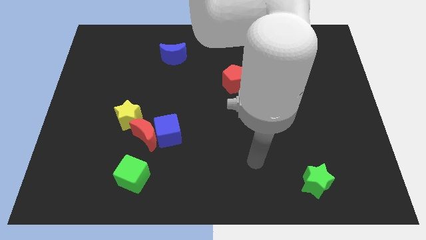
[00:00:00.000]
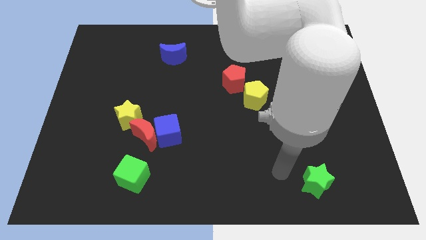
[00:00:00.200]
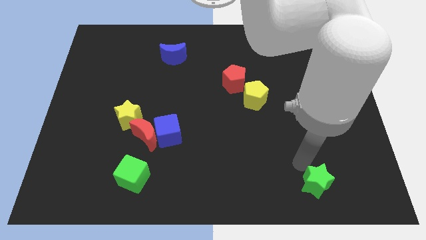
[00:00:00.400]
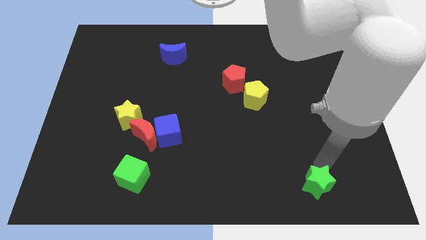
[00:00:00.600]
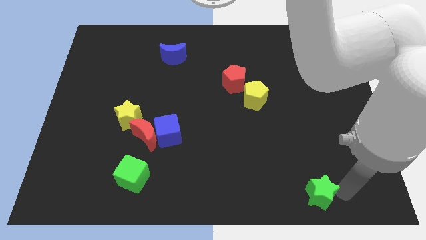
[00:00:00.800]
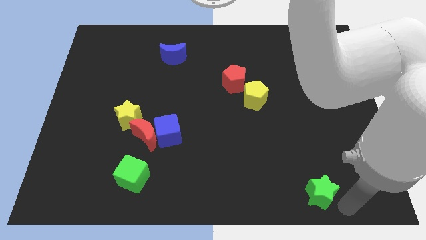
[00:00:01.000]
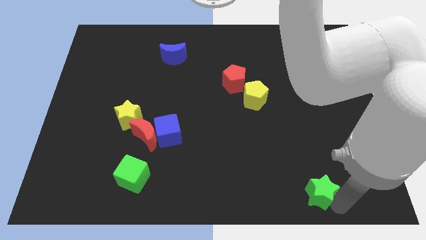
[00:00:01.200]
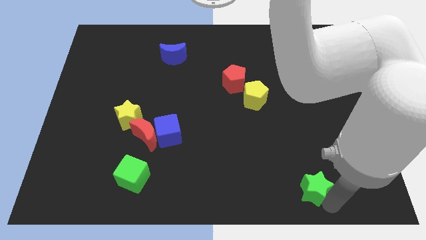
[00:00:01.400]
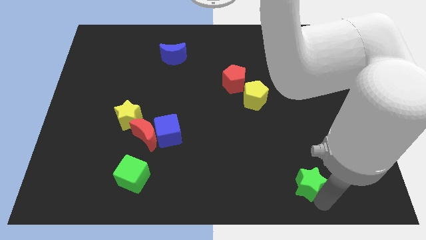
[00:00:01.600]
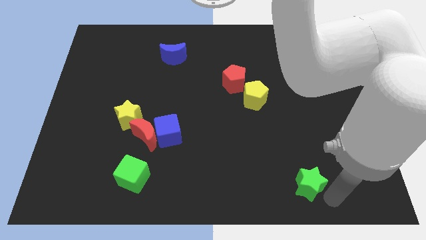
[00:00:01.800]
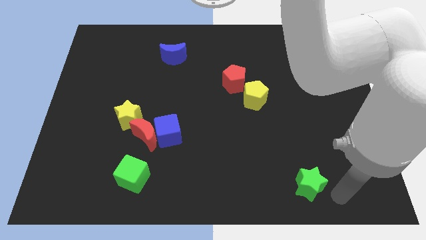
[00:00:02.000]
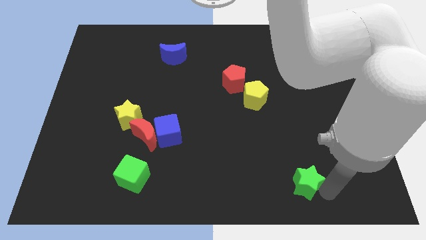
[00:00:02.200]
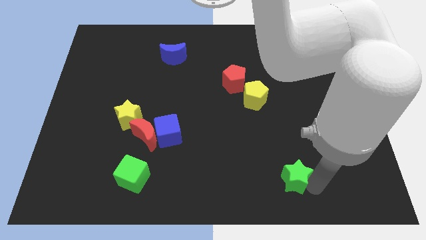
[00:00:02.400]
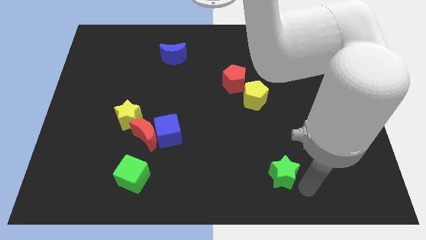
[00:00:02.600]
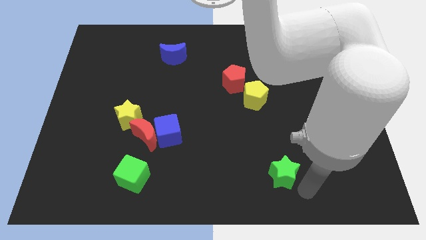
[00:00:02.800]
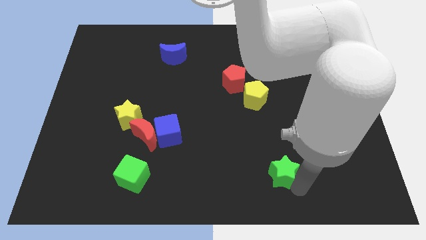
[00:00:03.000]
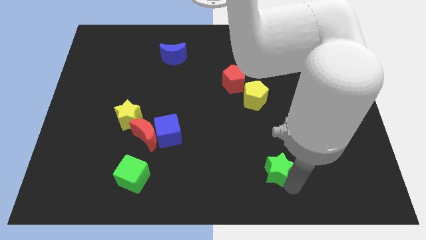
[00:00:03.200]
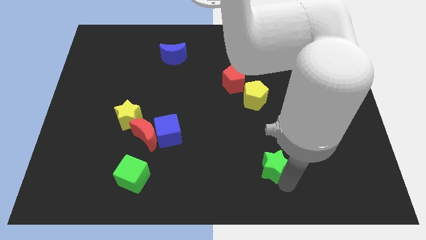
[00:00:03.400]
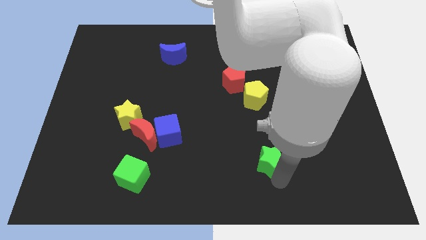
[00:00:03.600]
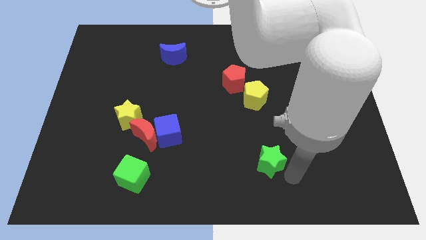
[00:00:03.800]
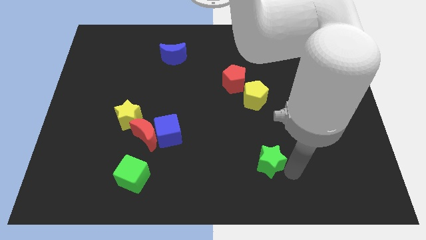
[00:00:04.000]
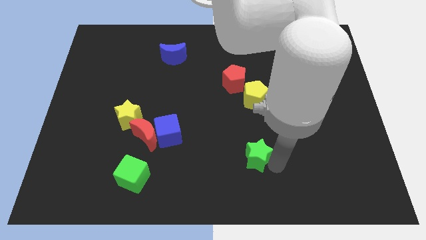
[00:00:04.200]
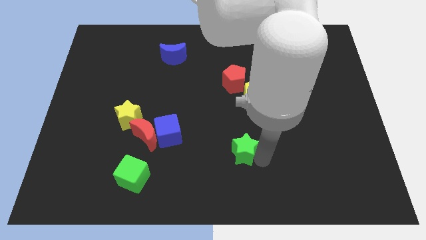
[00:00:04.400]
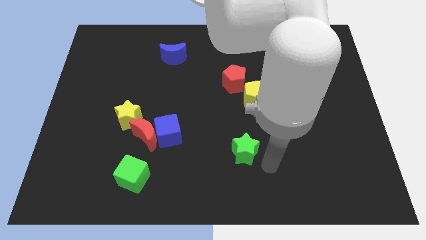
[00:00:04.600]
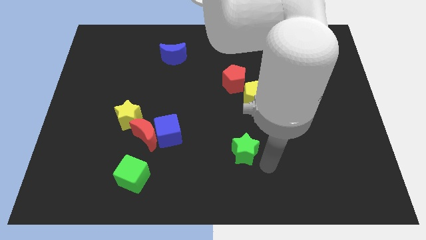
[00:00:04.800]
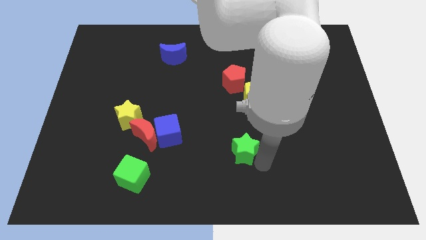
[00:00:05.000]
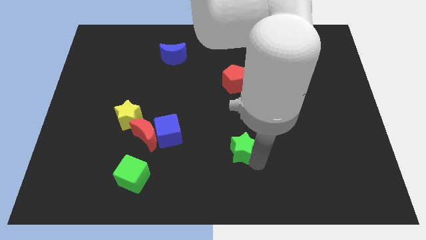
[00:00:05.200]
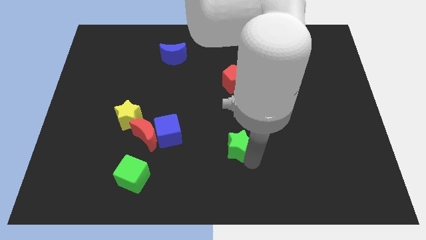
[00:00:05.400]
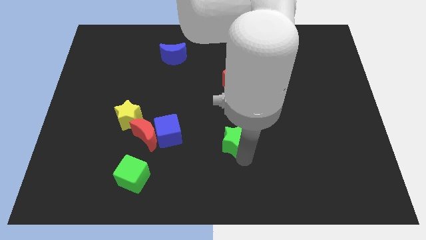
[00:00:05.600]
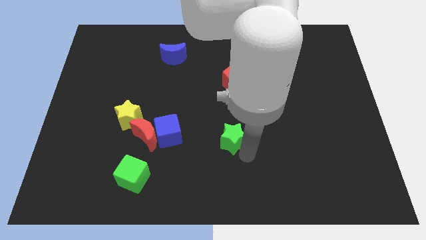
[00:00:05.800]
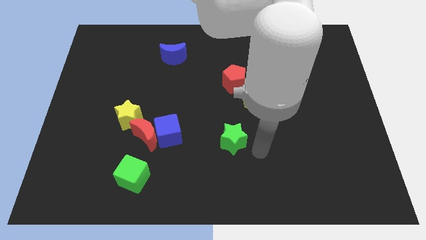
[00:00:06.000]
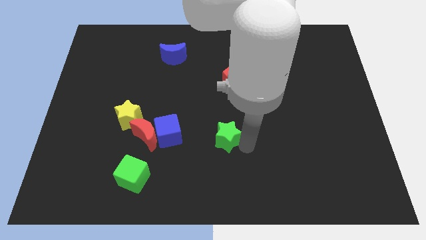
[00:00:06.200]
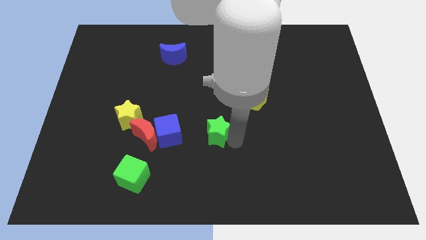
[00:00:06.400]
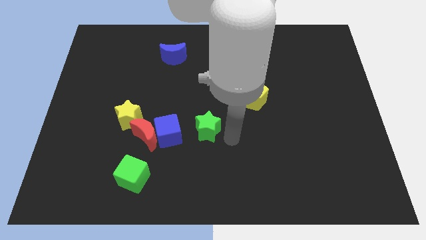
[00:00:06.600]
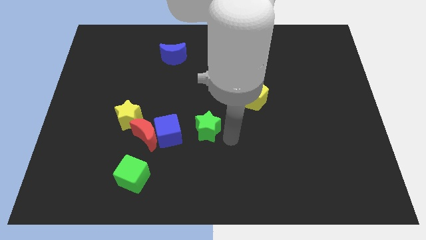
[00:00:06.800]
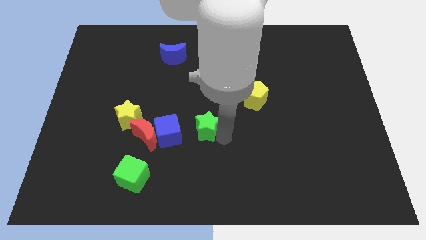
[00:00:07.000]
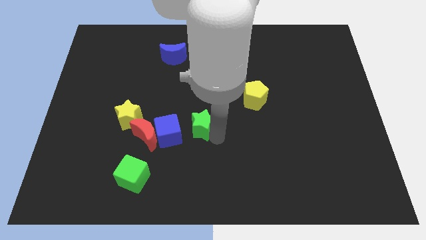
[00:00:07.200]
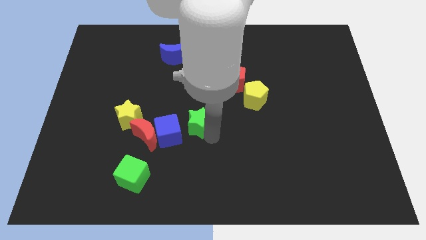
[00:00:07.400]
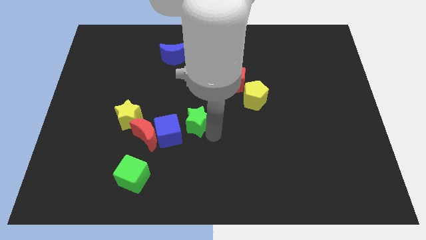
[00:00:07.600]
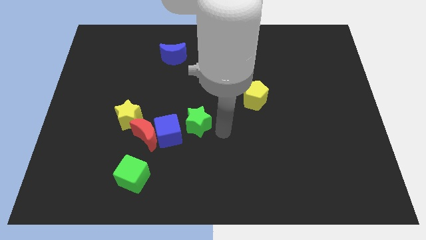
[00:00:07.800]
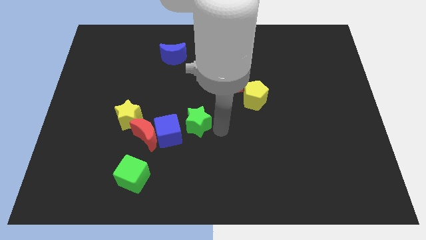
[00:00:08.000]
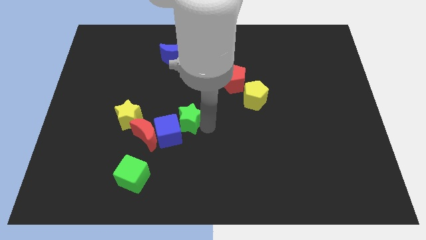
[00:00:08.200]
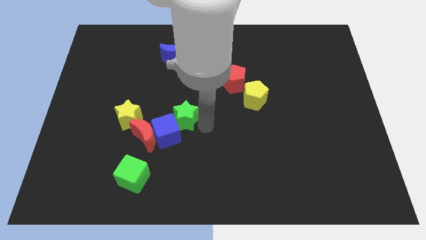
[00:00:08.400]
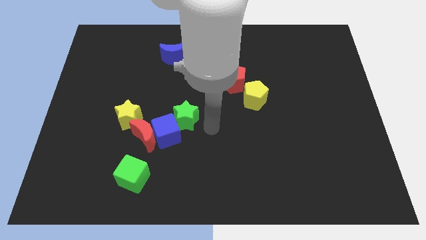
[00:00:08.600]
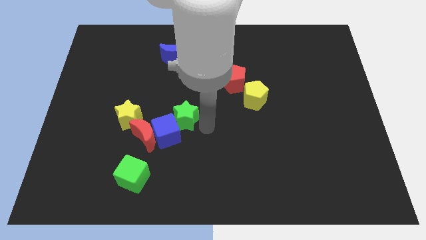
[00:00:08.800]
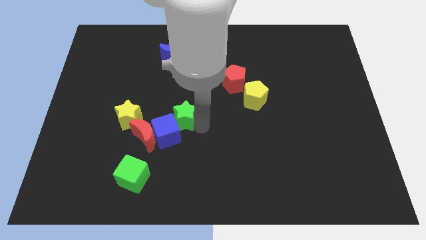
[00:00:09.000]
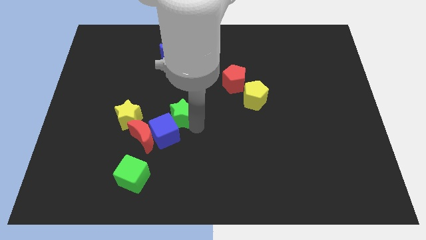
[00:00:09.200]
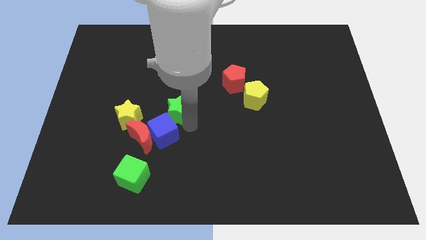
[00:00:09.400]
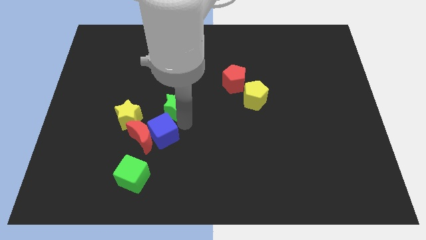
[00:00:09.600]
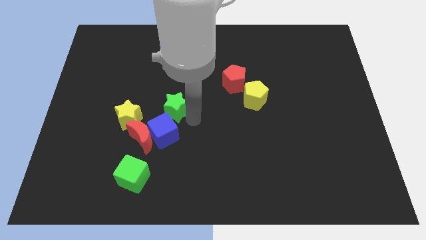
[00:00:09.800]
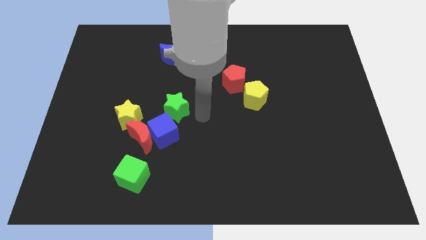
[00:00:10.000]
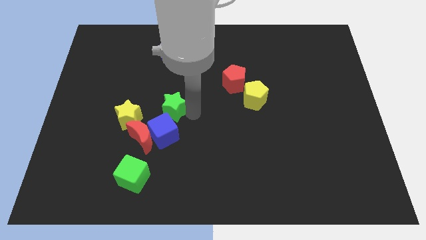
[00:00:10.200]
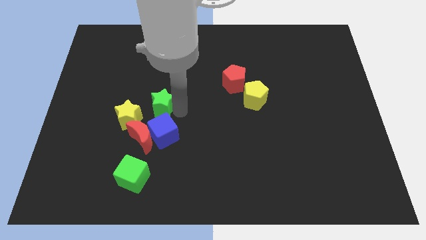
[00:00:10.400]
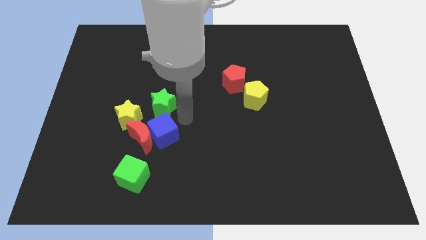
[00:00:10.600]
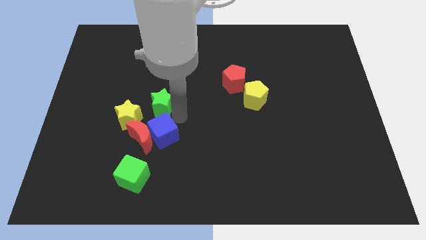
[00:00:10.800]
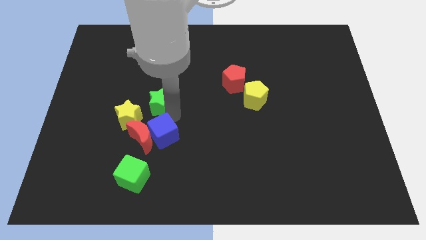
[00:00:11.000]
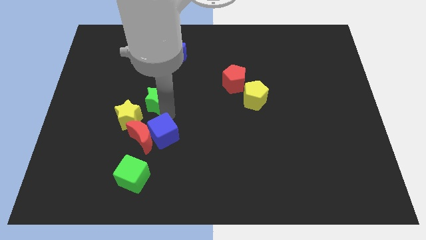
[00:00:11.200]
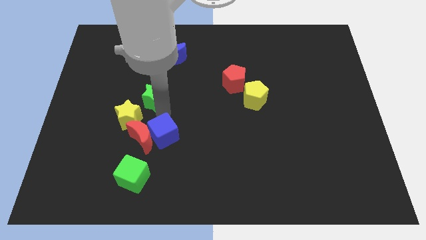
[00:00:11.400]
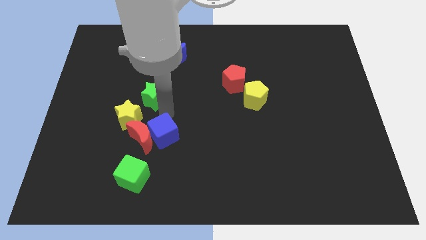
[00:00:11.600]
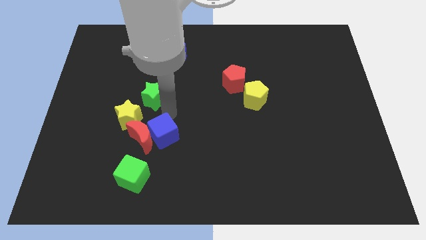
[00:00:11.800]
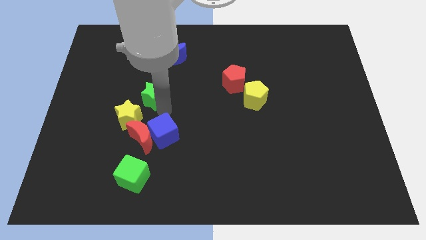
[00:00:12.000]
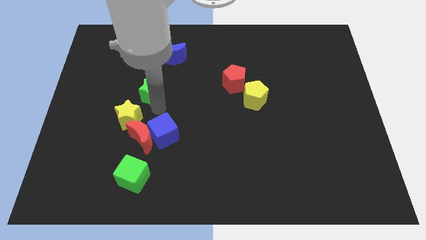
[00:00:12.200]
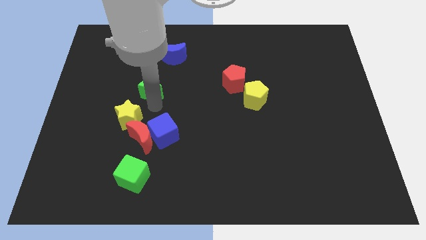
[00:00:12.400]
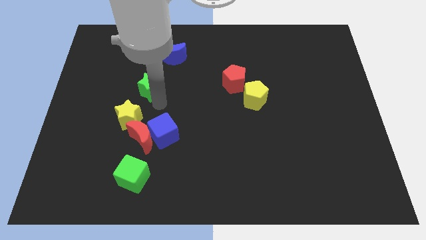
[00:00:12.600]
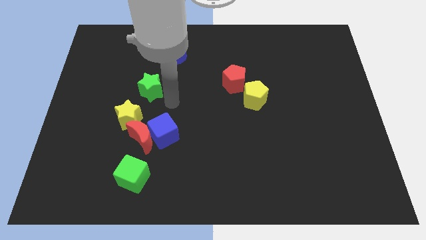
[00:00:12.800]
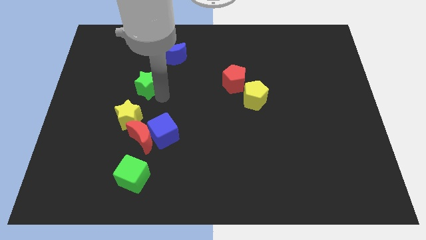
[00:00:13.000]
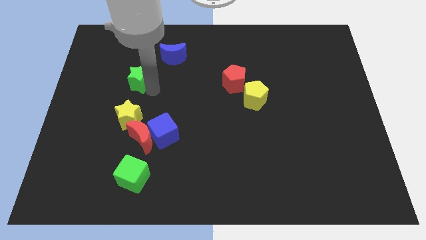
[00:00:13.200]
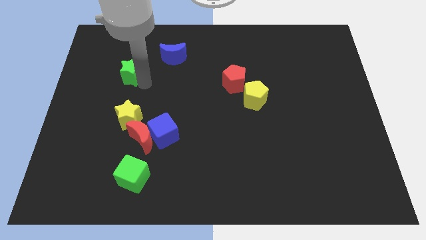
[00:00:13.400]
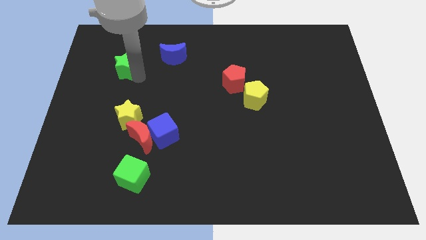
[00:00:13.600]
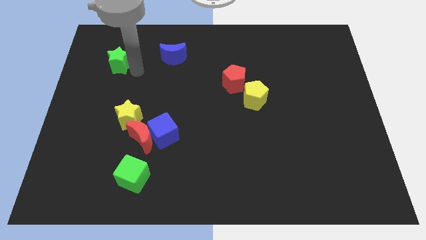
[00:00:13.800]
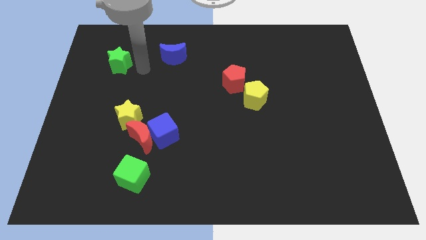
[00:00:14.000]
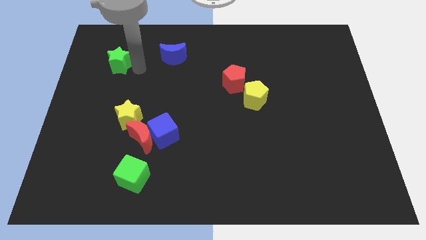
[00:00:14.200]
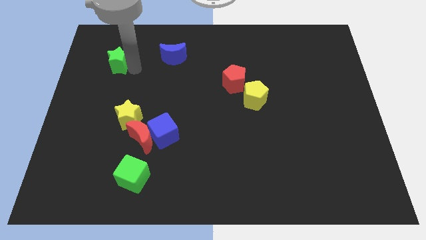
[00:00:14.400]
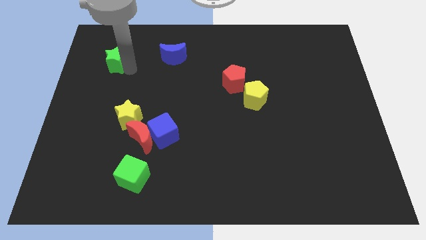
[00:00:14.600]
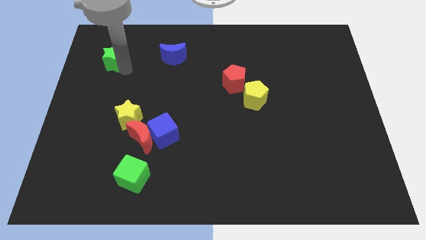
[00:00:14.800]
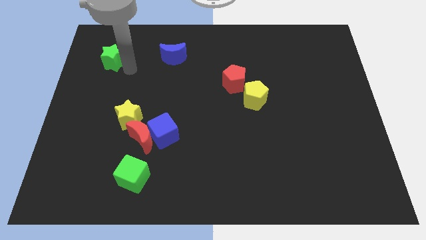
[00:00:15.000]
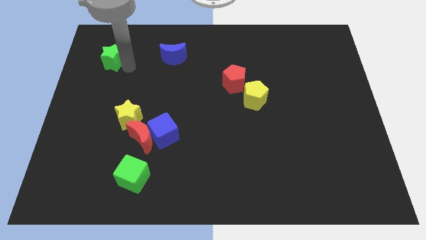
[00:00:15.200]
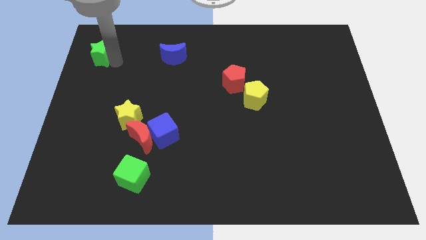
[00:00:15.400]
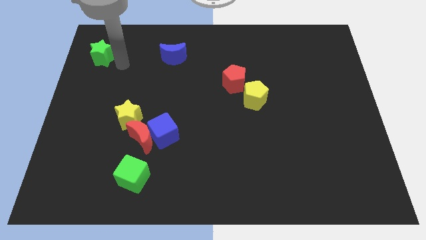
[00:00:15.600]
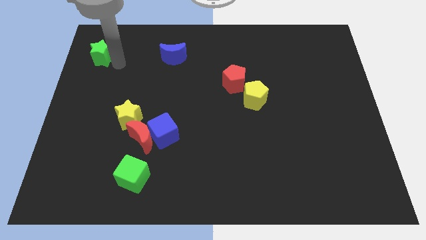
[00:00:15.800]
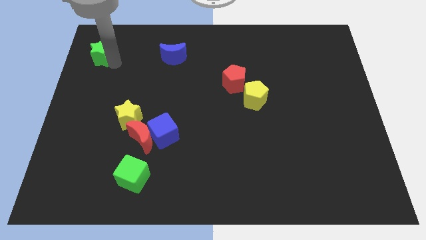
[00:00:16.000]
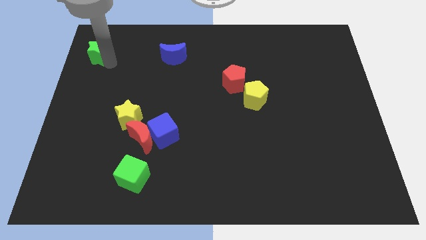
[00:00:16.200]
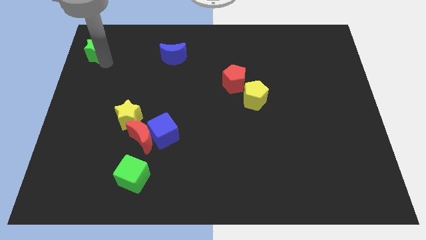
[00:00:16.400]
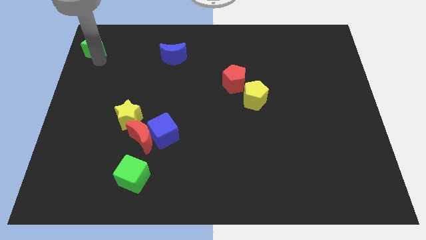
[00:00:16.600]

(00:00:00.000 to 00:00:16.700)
move the green star to the top left of the board
